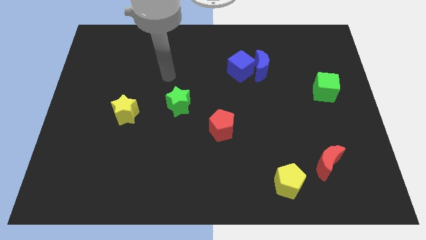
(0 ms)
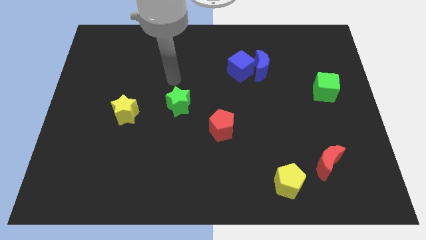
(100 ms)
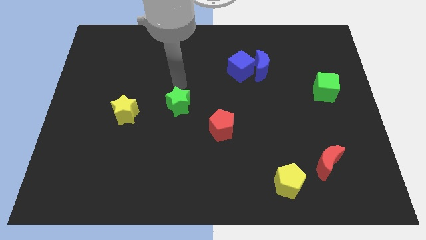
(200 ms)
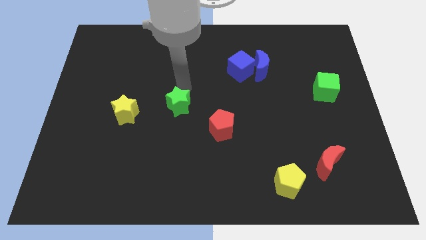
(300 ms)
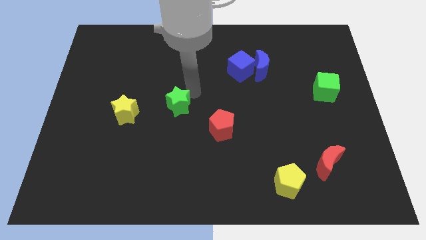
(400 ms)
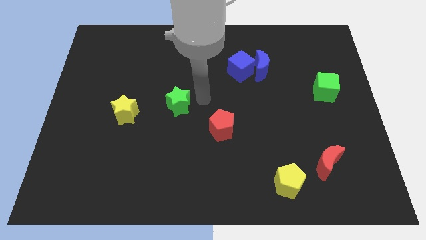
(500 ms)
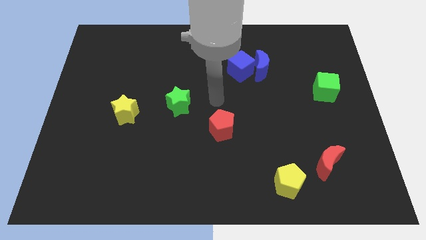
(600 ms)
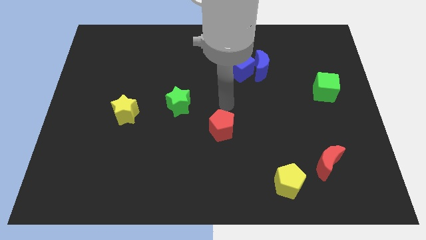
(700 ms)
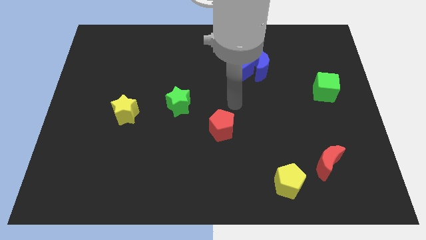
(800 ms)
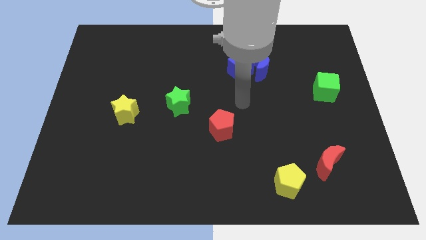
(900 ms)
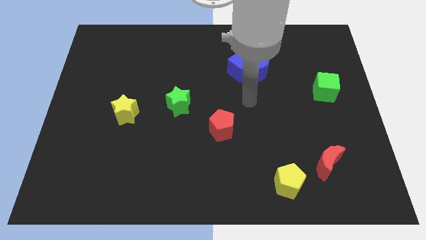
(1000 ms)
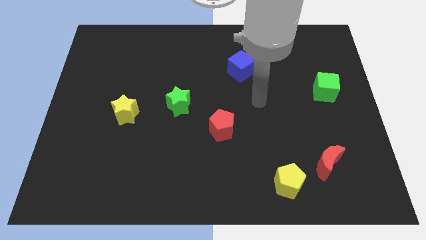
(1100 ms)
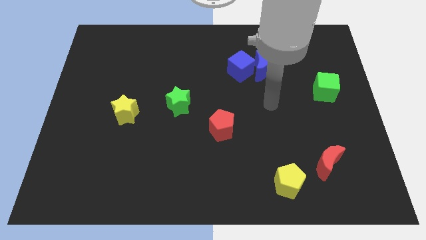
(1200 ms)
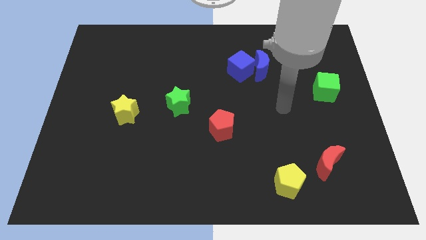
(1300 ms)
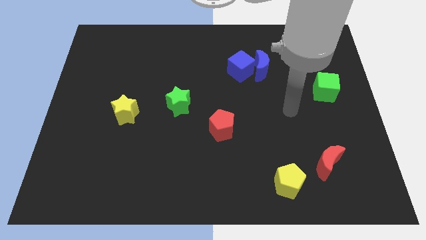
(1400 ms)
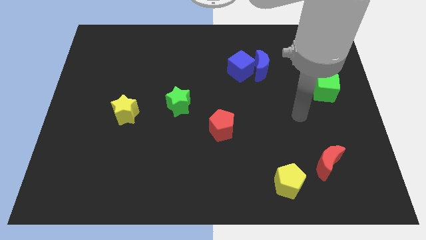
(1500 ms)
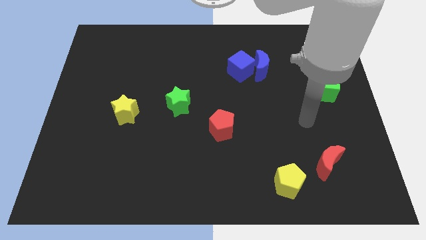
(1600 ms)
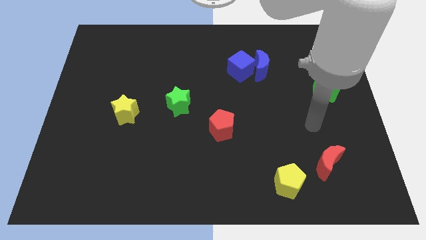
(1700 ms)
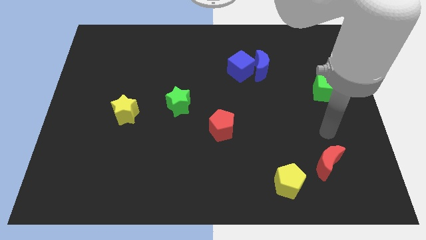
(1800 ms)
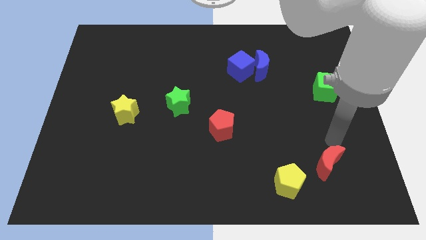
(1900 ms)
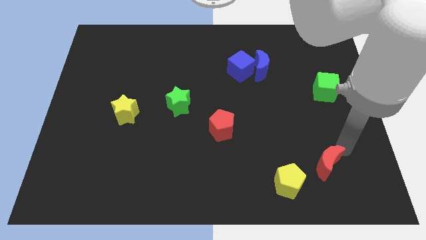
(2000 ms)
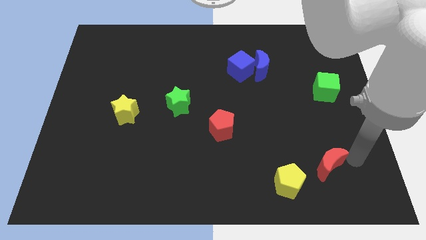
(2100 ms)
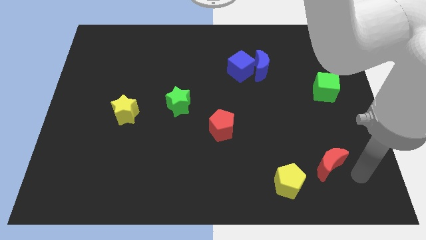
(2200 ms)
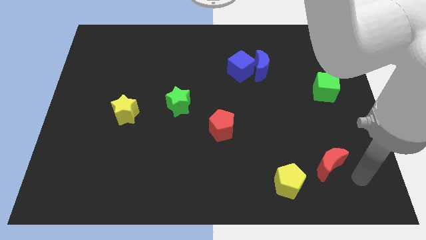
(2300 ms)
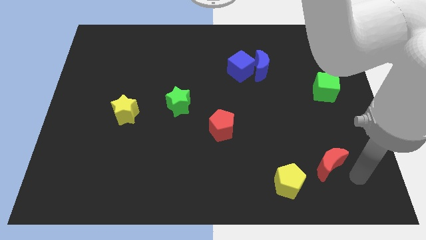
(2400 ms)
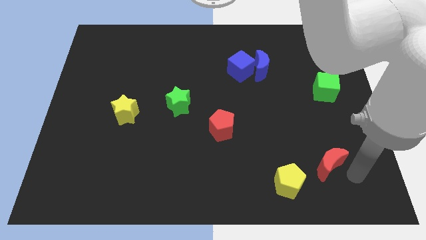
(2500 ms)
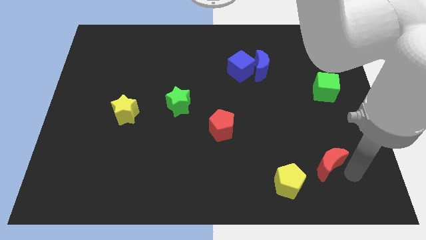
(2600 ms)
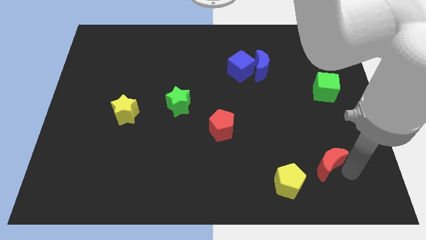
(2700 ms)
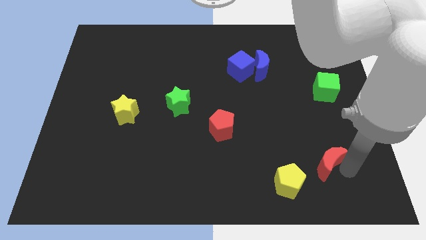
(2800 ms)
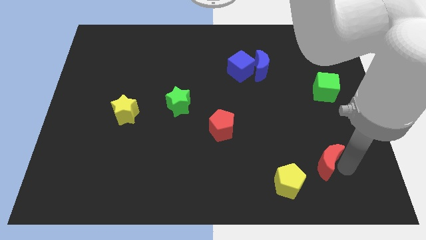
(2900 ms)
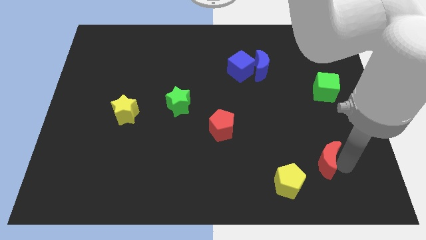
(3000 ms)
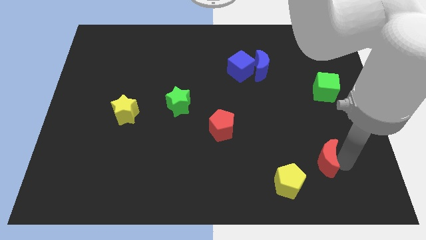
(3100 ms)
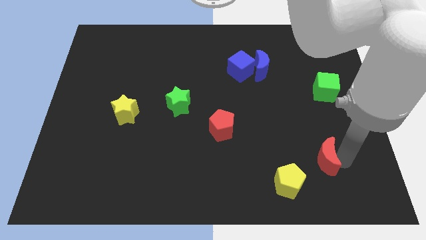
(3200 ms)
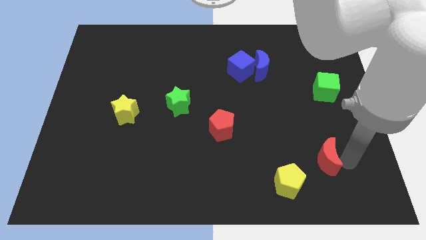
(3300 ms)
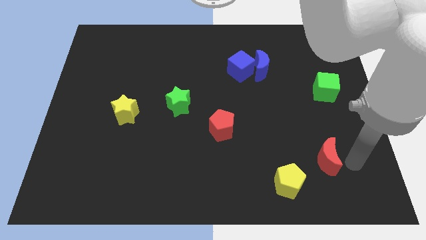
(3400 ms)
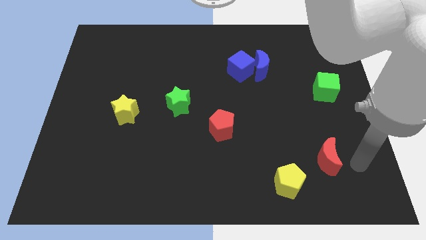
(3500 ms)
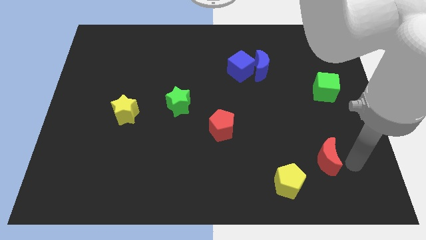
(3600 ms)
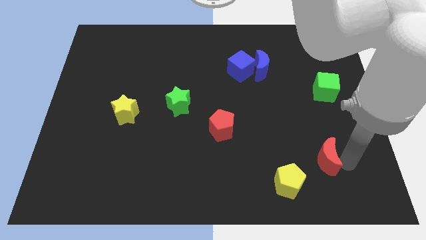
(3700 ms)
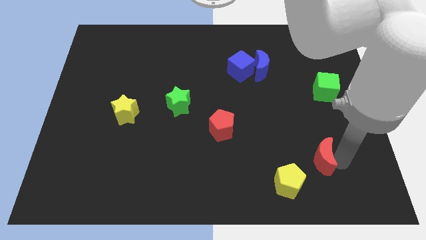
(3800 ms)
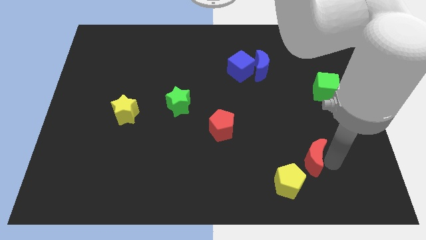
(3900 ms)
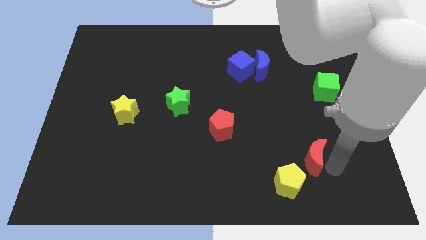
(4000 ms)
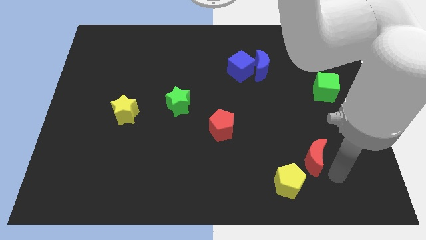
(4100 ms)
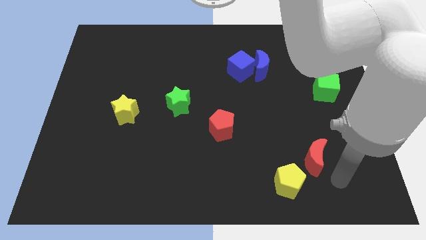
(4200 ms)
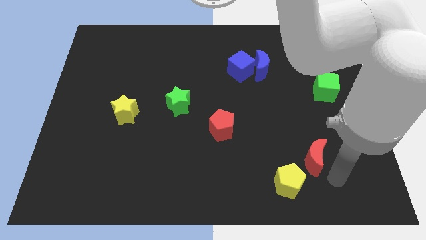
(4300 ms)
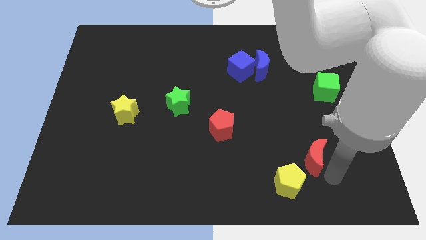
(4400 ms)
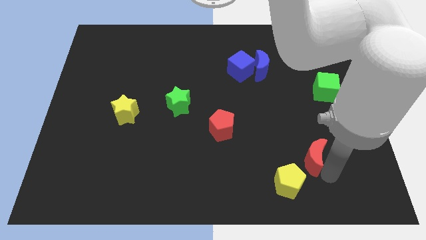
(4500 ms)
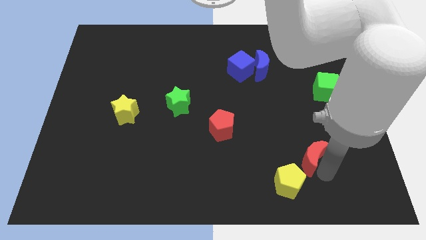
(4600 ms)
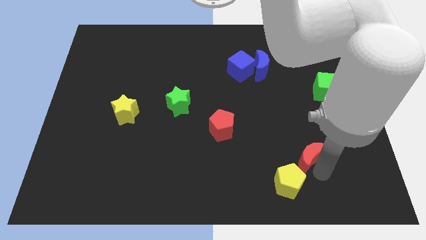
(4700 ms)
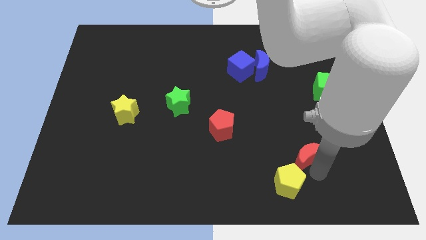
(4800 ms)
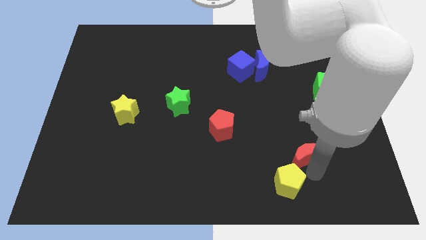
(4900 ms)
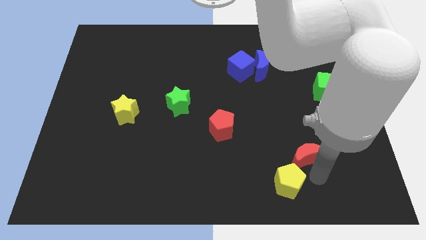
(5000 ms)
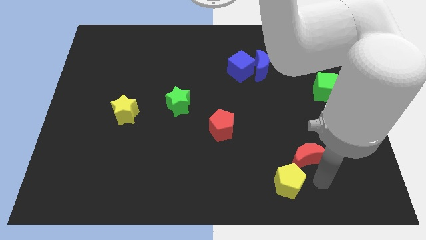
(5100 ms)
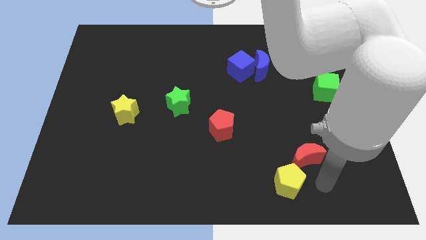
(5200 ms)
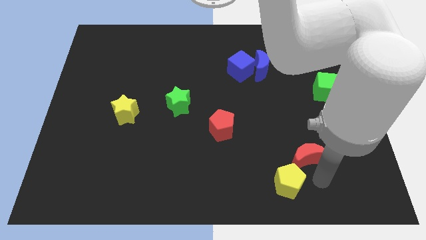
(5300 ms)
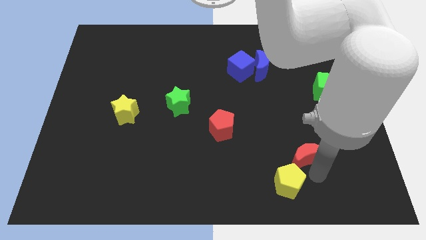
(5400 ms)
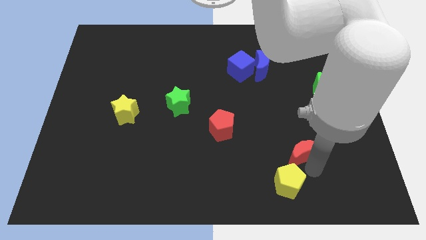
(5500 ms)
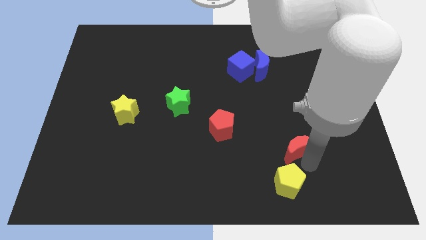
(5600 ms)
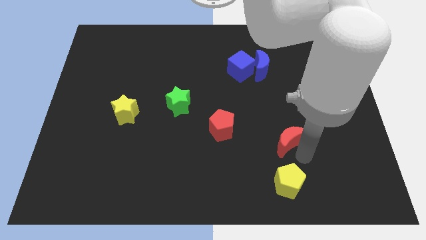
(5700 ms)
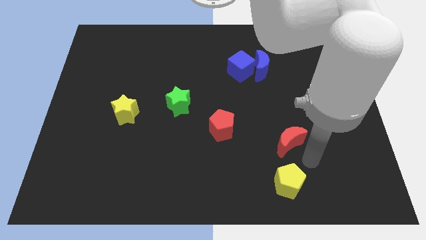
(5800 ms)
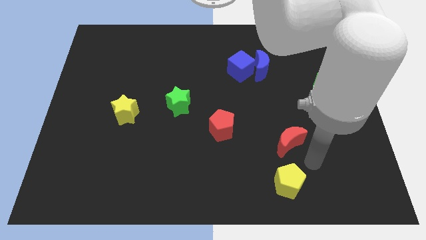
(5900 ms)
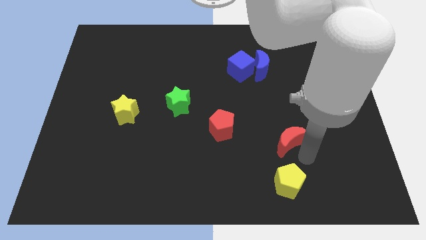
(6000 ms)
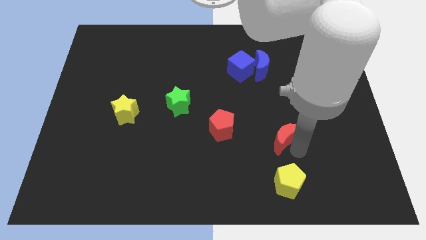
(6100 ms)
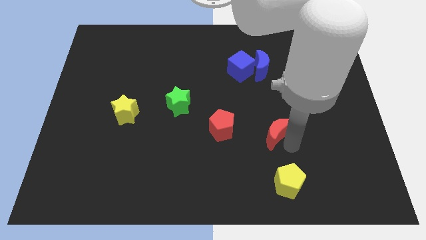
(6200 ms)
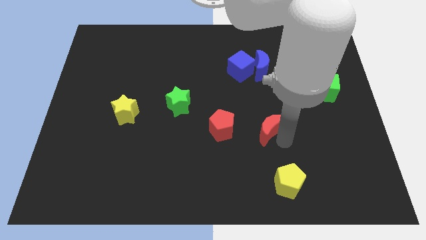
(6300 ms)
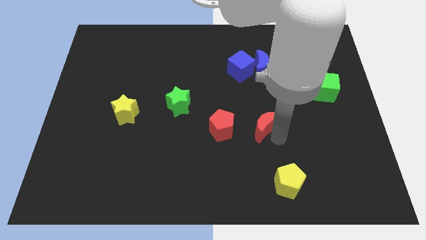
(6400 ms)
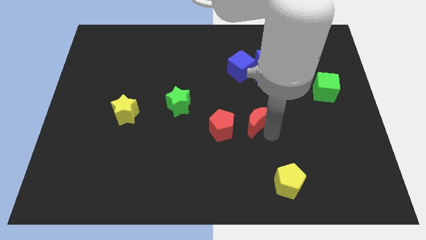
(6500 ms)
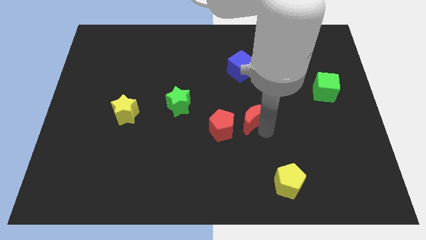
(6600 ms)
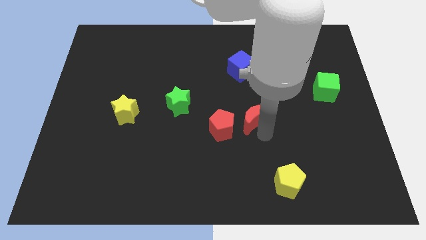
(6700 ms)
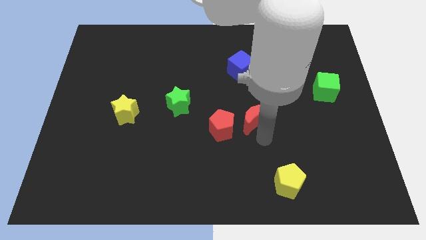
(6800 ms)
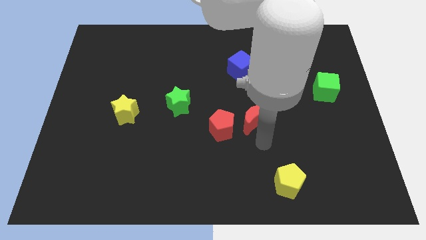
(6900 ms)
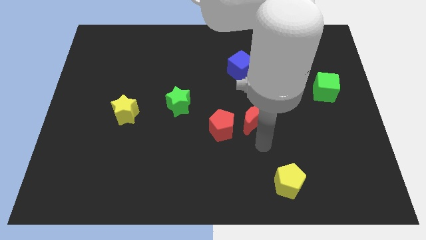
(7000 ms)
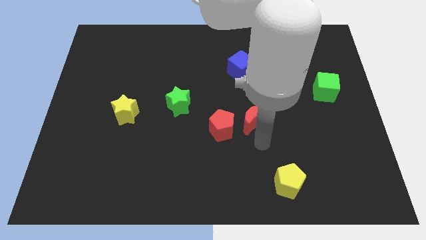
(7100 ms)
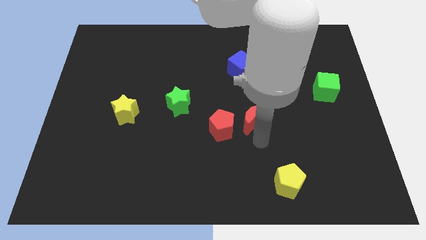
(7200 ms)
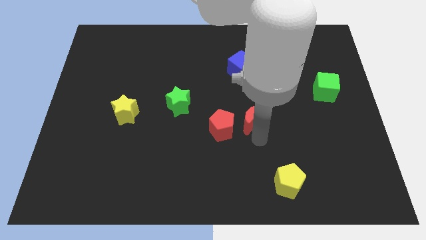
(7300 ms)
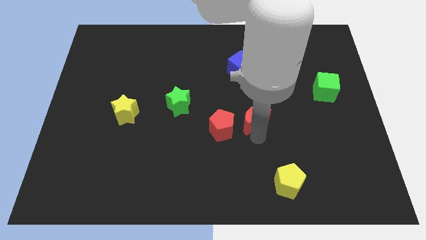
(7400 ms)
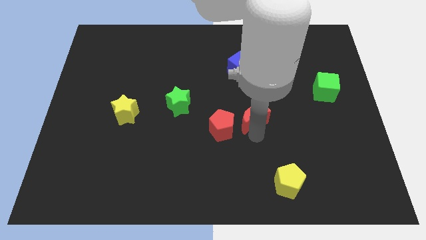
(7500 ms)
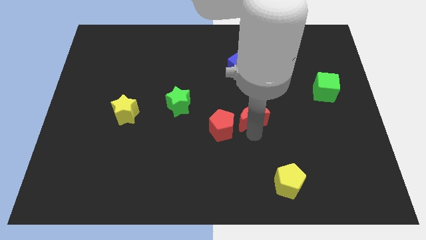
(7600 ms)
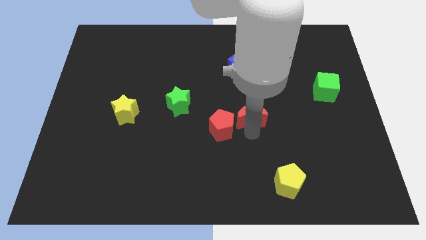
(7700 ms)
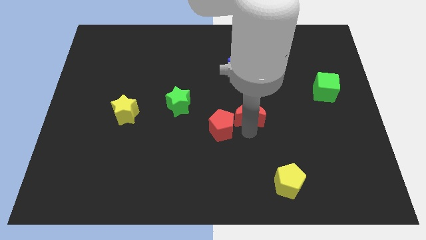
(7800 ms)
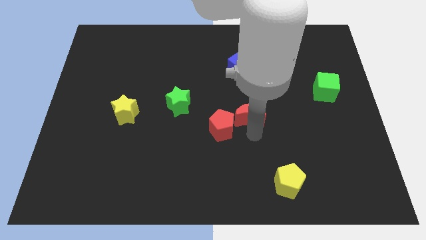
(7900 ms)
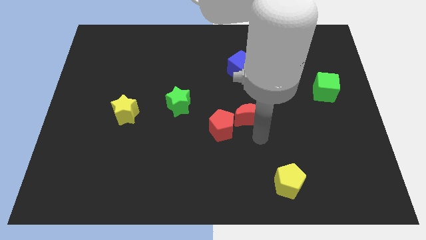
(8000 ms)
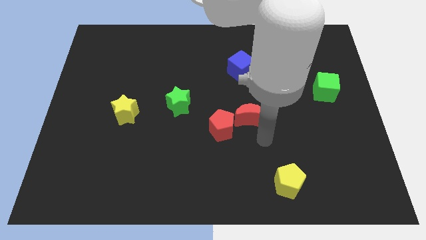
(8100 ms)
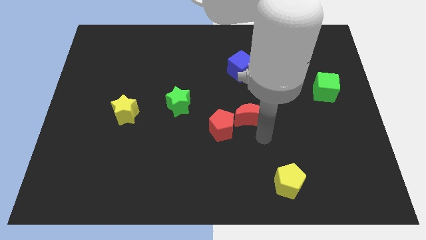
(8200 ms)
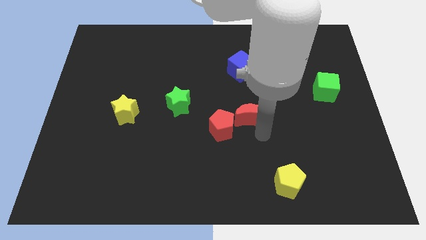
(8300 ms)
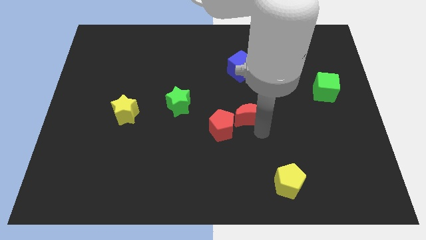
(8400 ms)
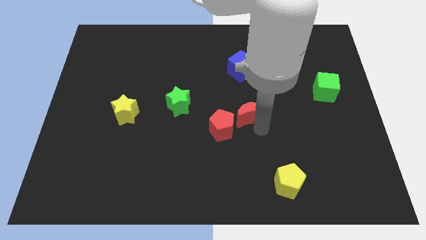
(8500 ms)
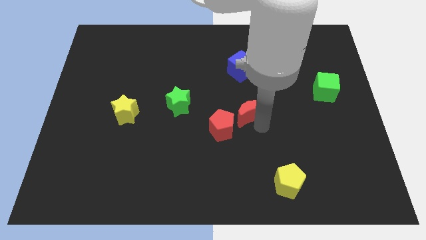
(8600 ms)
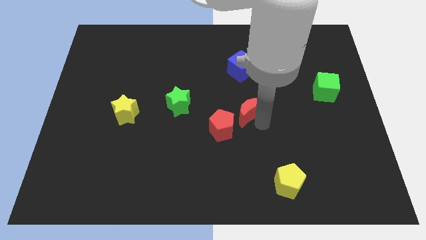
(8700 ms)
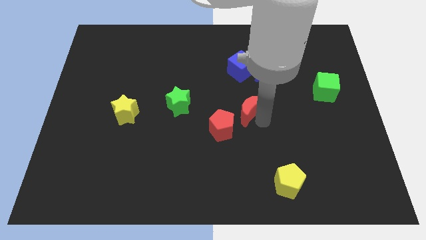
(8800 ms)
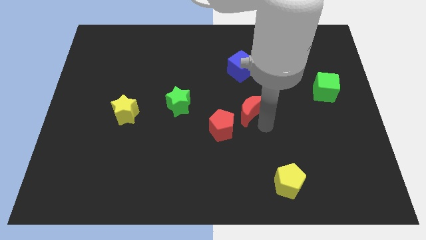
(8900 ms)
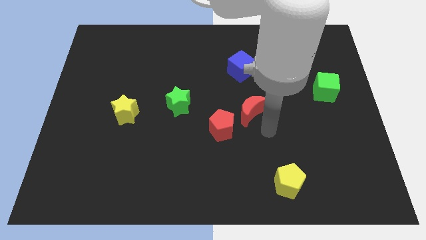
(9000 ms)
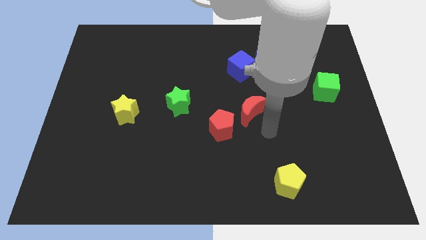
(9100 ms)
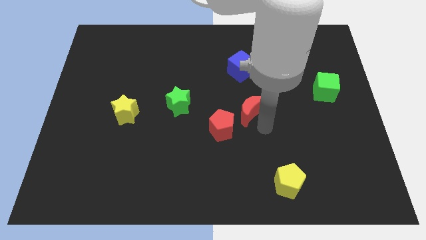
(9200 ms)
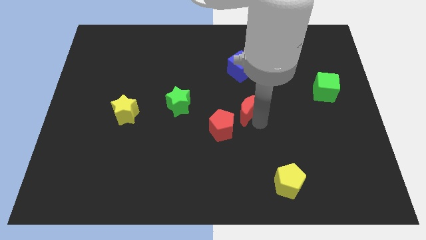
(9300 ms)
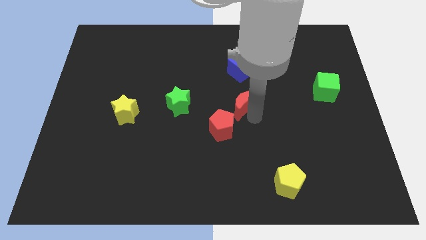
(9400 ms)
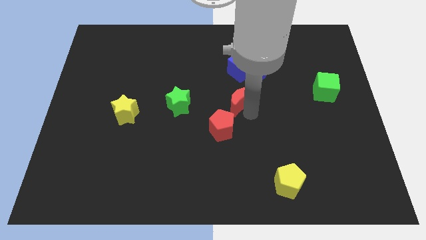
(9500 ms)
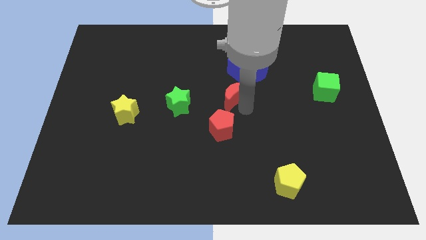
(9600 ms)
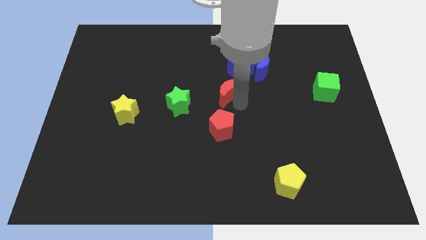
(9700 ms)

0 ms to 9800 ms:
put the red moon diagonally down and to the left of the blue cube
